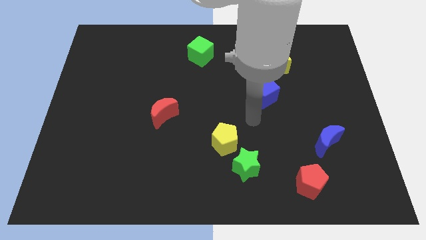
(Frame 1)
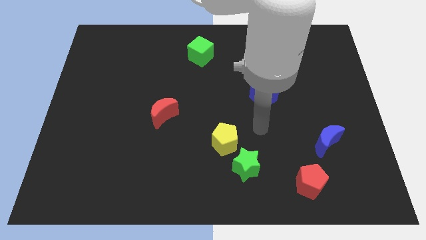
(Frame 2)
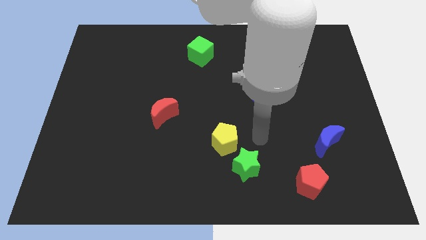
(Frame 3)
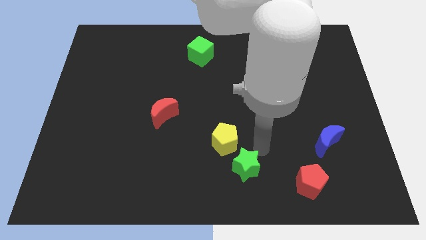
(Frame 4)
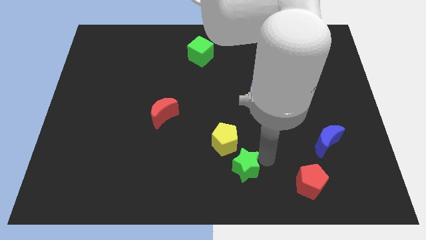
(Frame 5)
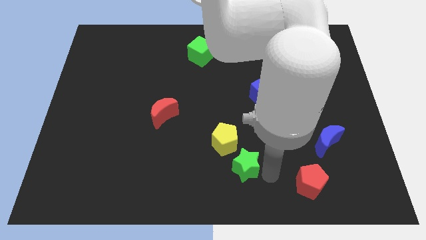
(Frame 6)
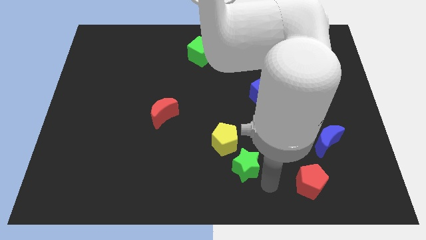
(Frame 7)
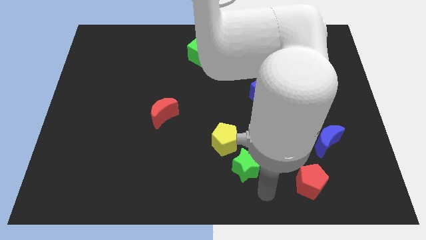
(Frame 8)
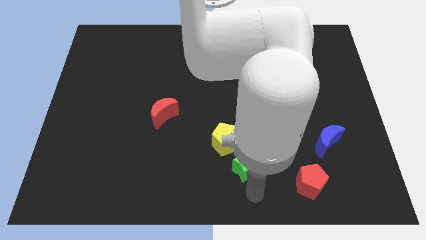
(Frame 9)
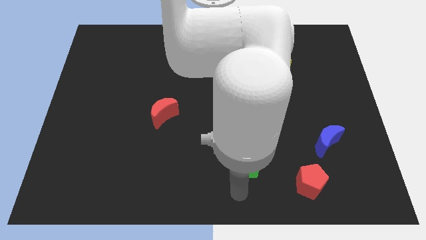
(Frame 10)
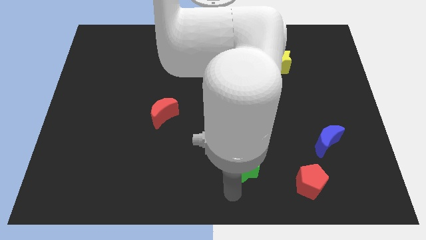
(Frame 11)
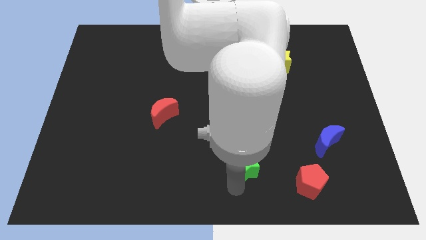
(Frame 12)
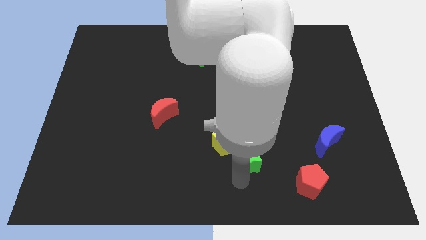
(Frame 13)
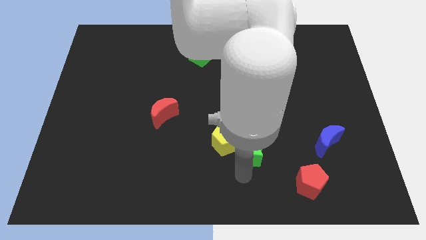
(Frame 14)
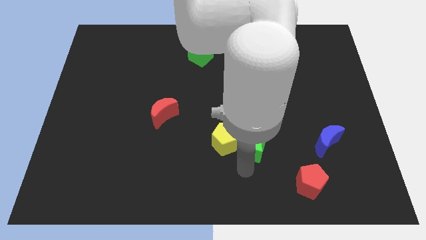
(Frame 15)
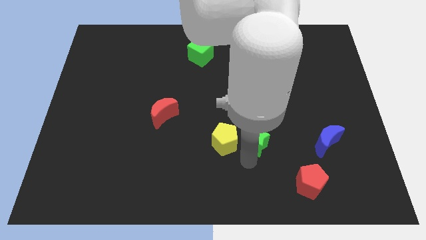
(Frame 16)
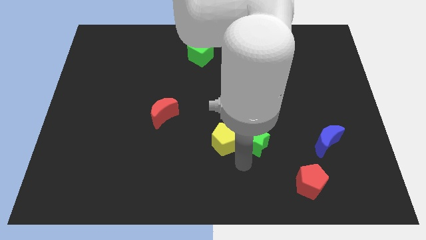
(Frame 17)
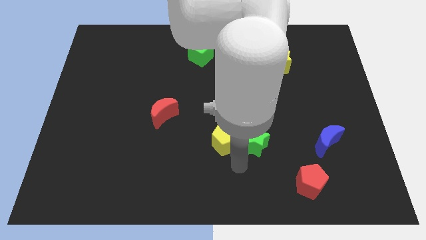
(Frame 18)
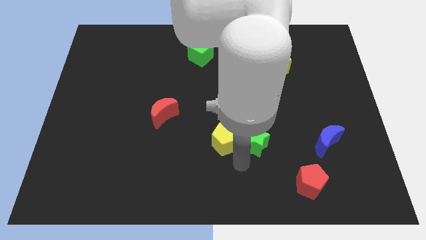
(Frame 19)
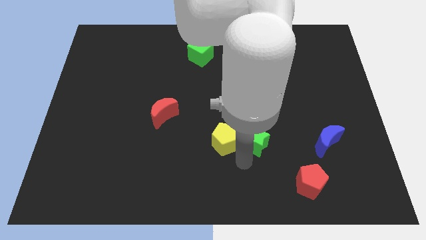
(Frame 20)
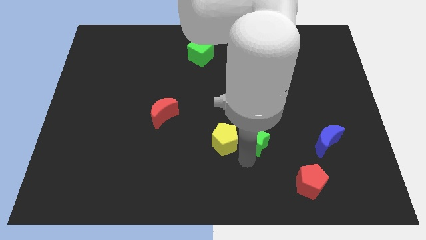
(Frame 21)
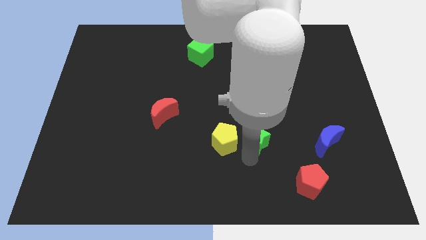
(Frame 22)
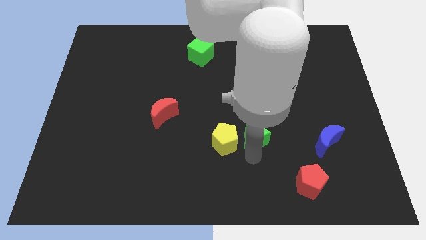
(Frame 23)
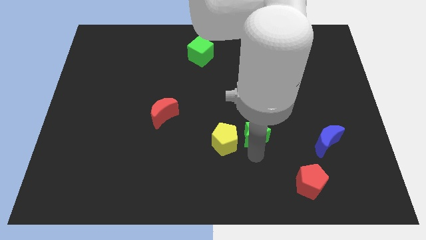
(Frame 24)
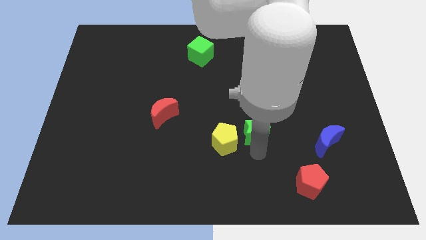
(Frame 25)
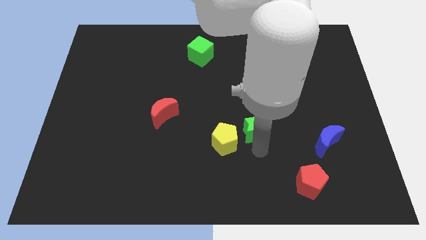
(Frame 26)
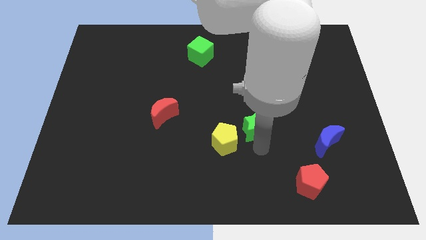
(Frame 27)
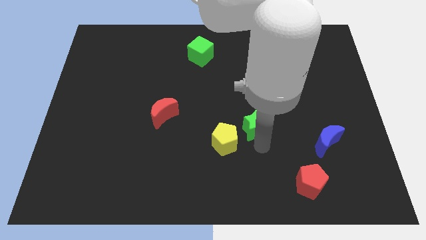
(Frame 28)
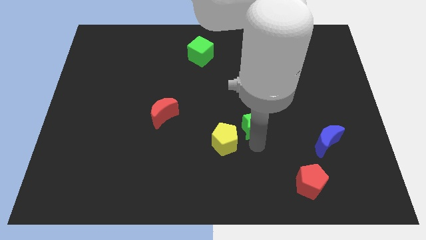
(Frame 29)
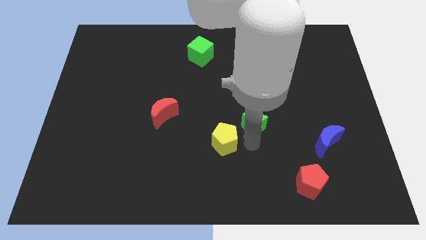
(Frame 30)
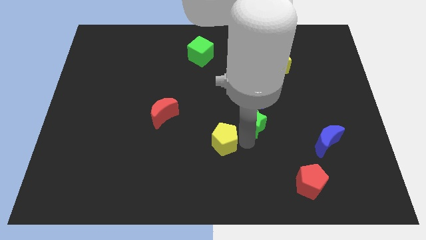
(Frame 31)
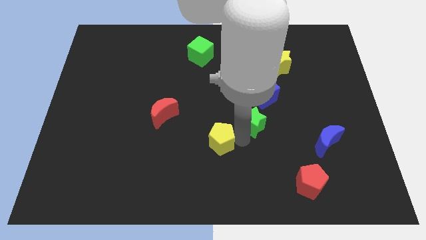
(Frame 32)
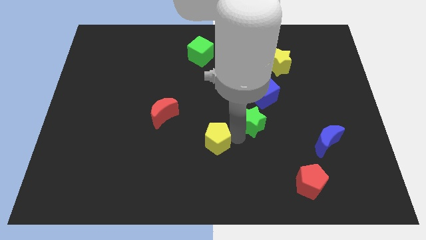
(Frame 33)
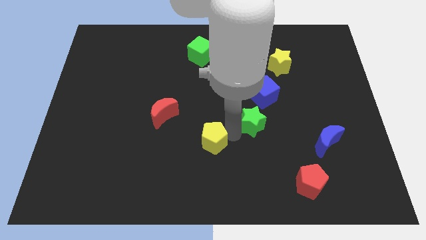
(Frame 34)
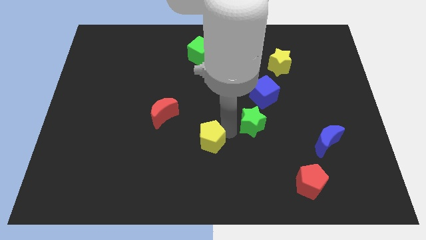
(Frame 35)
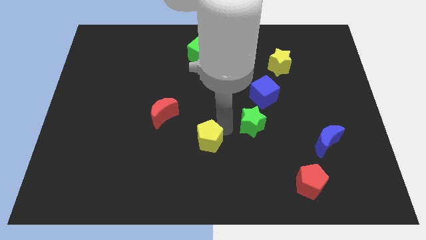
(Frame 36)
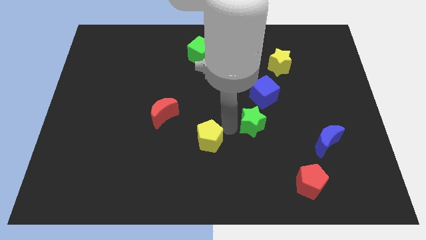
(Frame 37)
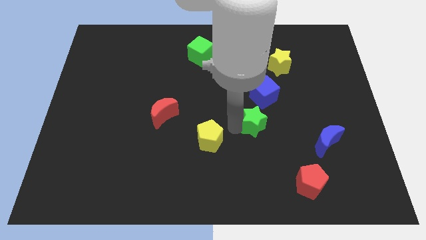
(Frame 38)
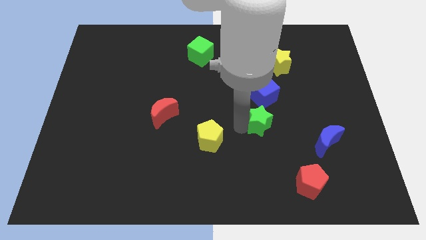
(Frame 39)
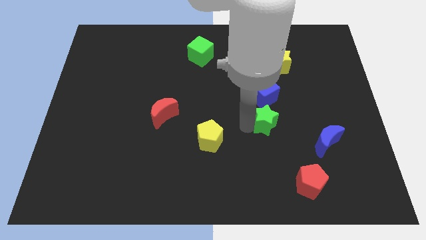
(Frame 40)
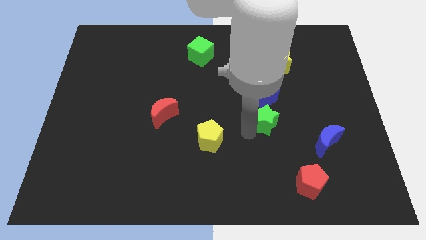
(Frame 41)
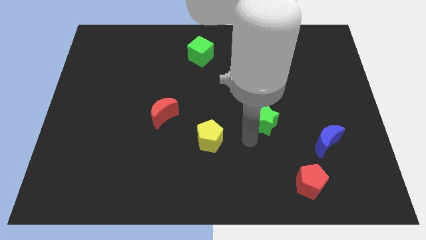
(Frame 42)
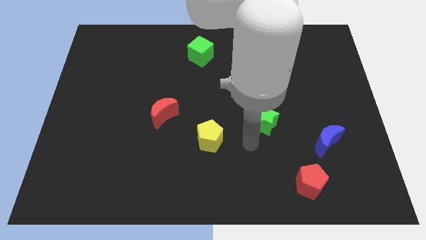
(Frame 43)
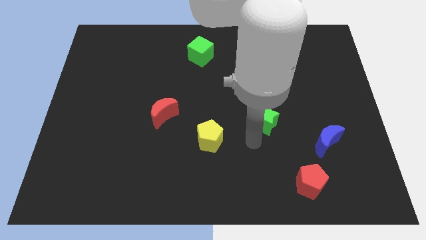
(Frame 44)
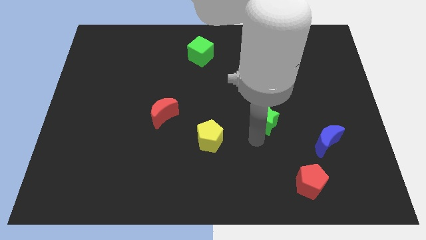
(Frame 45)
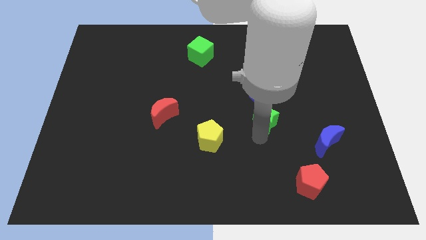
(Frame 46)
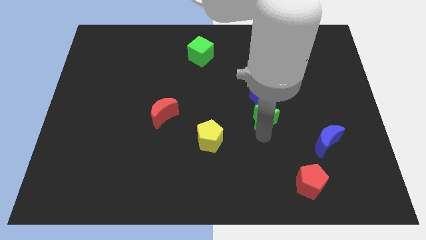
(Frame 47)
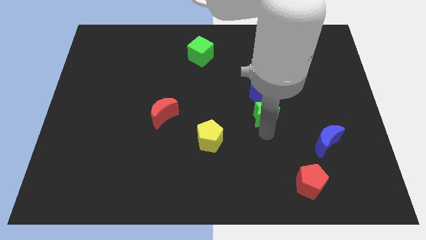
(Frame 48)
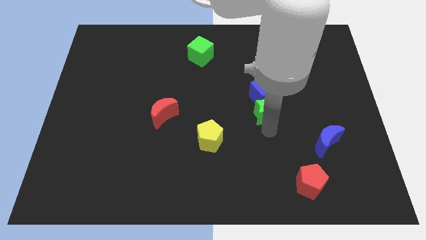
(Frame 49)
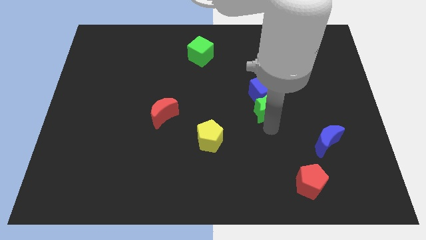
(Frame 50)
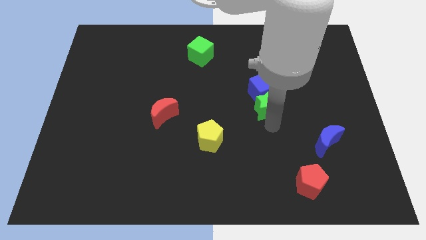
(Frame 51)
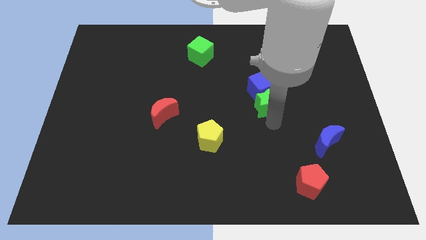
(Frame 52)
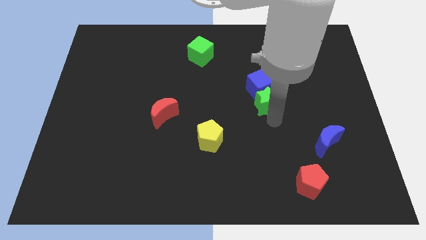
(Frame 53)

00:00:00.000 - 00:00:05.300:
slide the green star to the bottom side of the yellow star

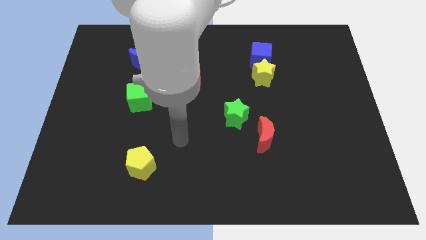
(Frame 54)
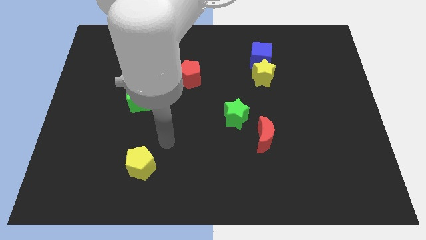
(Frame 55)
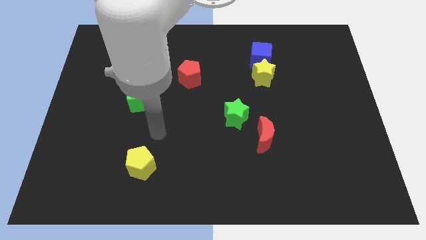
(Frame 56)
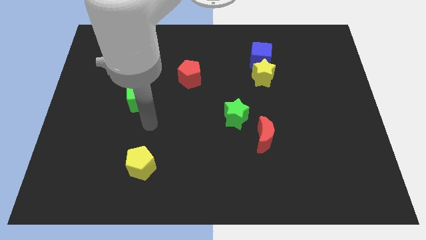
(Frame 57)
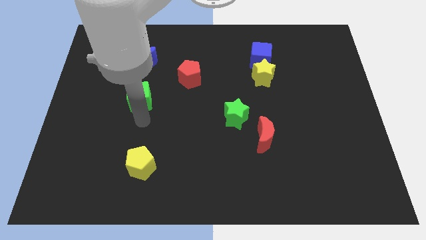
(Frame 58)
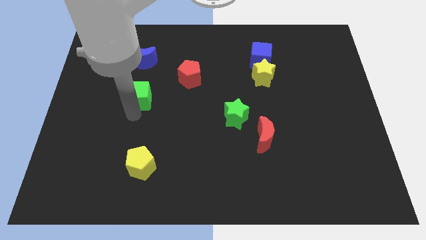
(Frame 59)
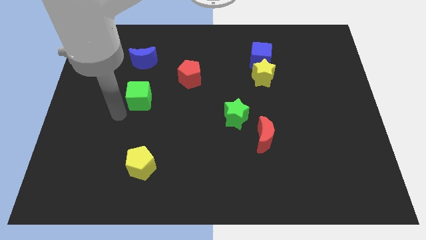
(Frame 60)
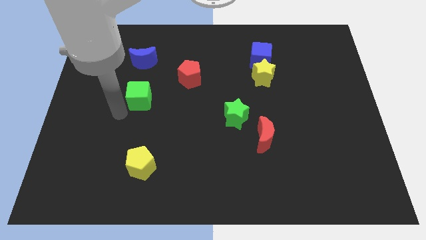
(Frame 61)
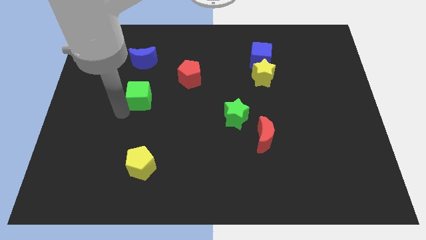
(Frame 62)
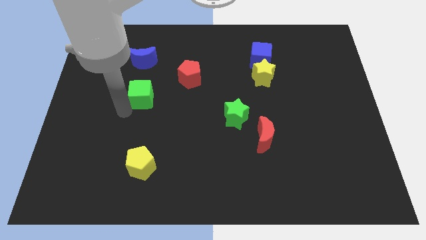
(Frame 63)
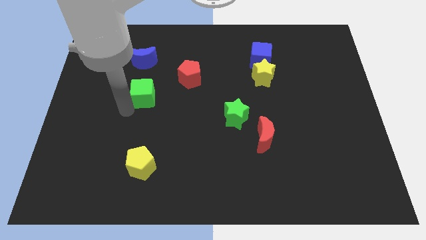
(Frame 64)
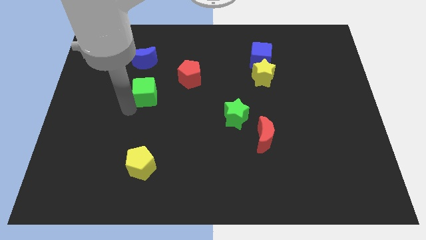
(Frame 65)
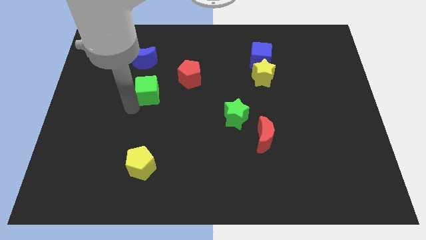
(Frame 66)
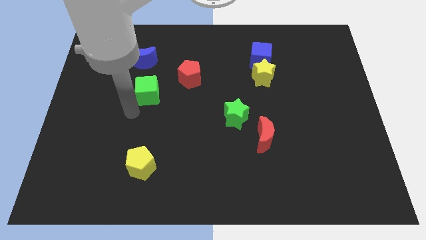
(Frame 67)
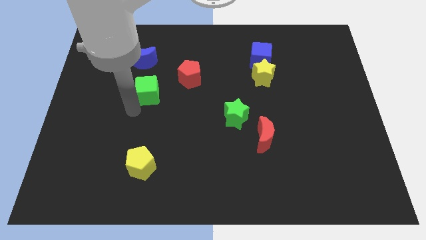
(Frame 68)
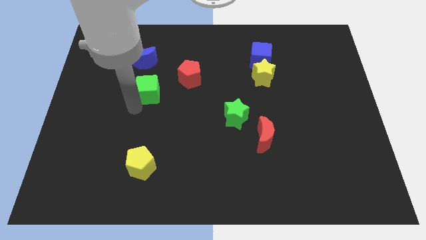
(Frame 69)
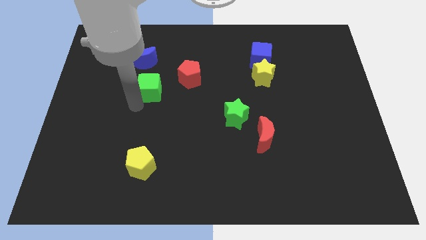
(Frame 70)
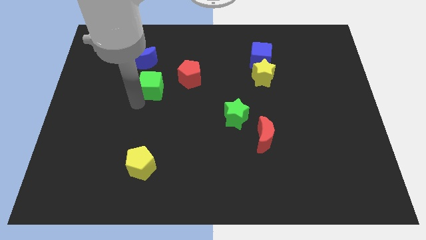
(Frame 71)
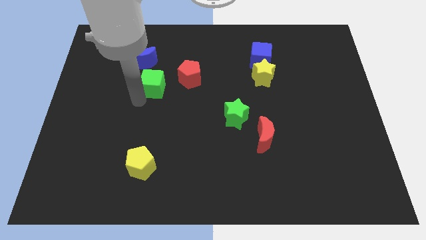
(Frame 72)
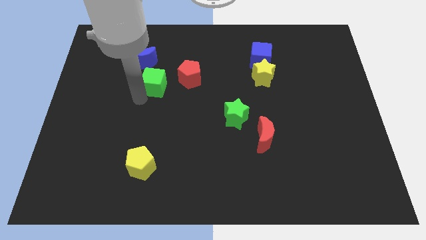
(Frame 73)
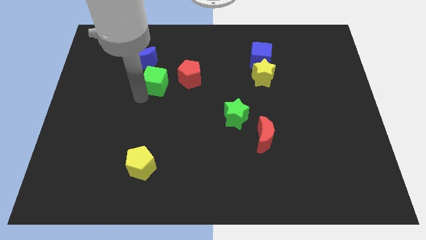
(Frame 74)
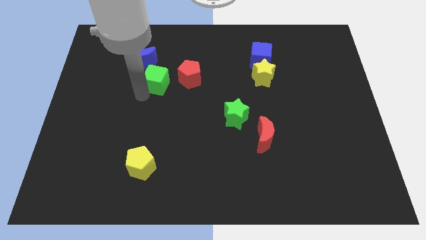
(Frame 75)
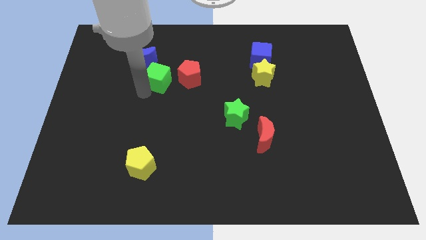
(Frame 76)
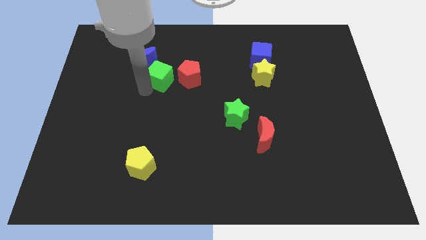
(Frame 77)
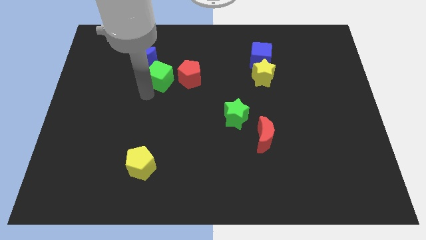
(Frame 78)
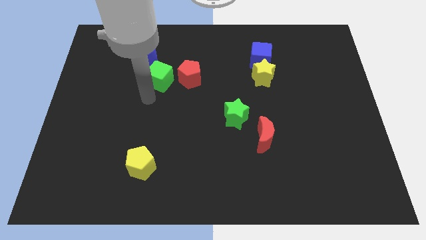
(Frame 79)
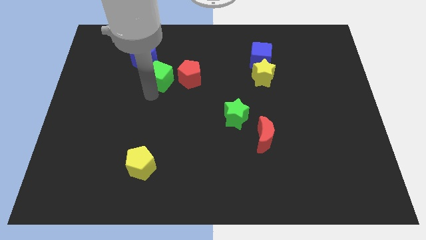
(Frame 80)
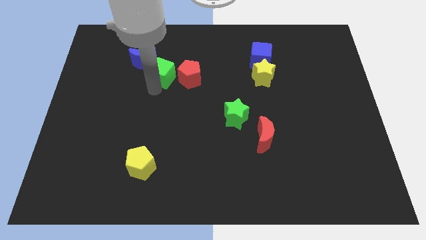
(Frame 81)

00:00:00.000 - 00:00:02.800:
move the green cube to the top left of the red pentagon

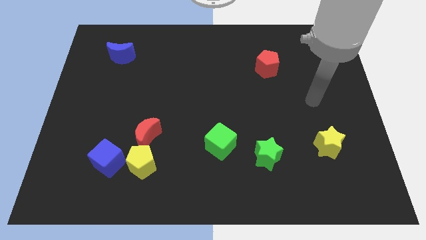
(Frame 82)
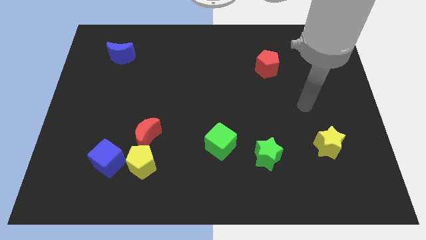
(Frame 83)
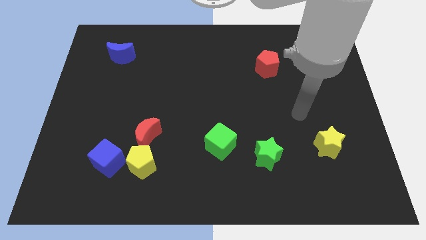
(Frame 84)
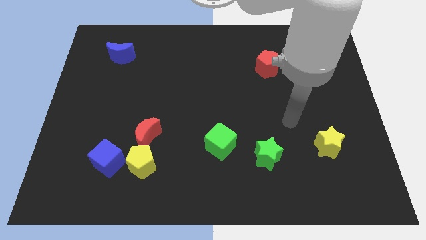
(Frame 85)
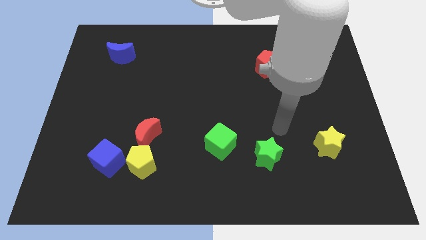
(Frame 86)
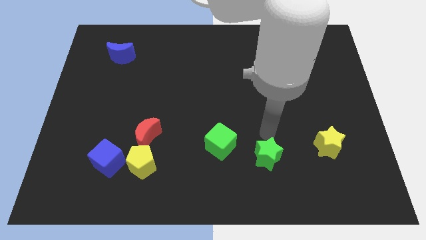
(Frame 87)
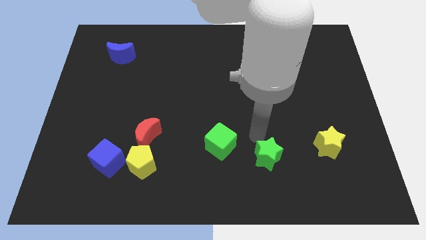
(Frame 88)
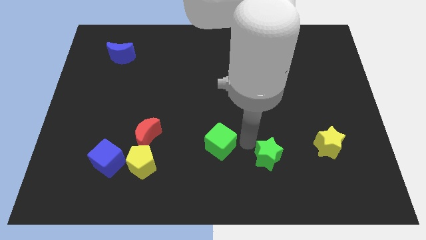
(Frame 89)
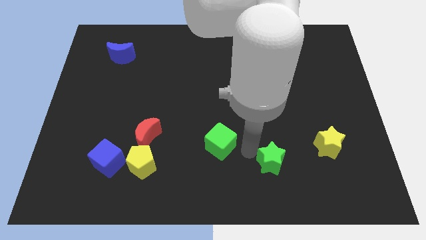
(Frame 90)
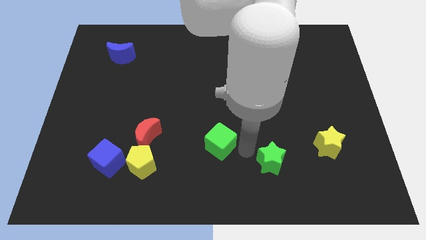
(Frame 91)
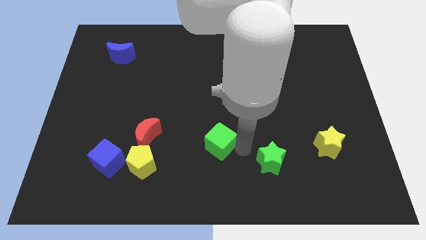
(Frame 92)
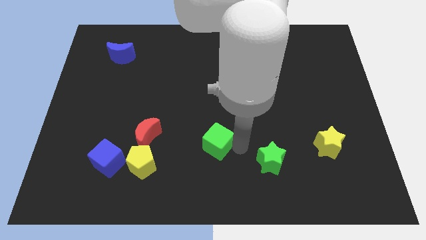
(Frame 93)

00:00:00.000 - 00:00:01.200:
put the green cube just right of the red moon
